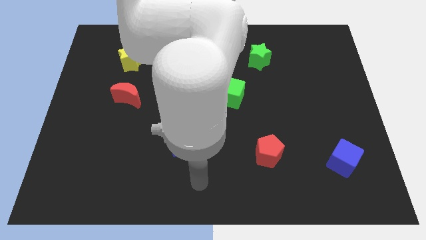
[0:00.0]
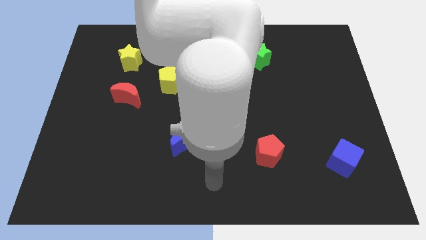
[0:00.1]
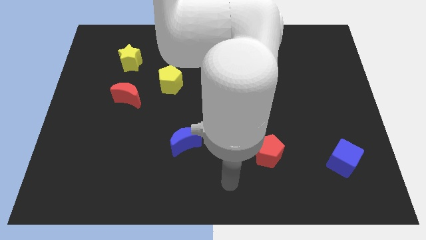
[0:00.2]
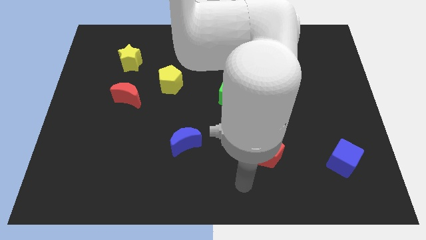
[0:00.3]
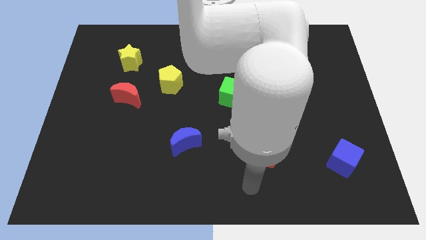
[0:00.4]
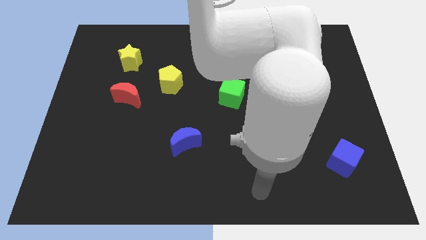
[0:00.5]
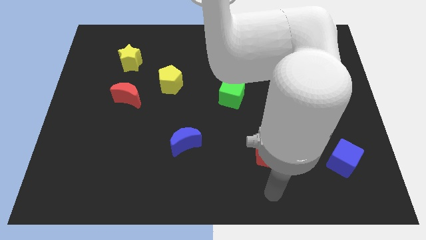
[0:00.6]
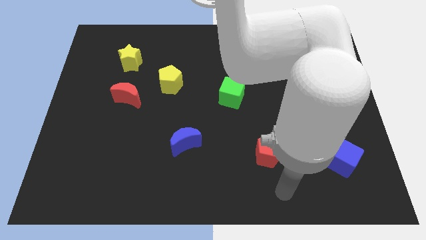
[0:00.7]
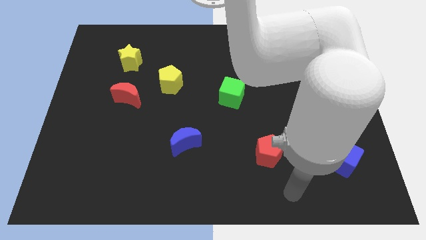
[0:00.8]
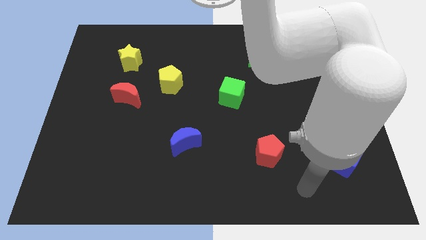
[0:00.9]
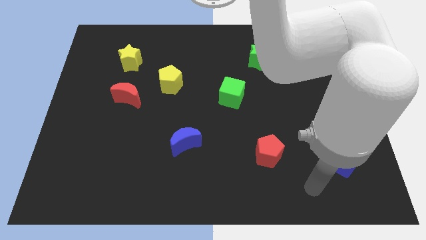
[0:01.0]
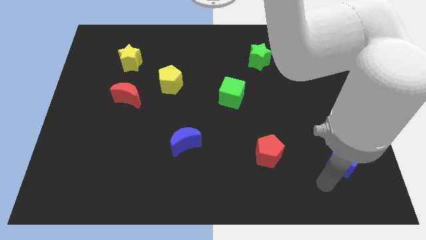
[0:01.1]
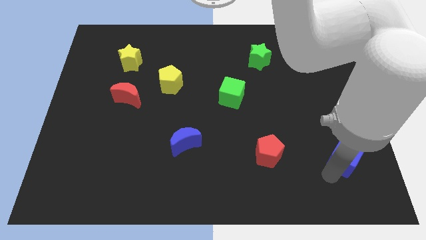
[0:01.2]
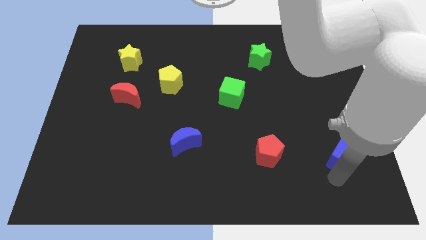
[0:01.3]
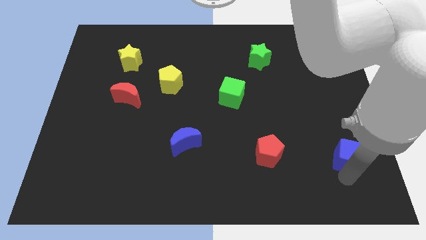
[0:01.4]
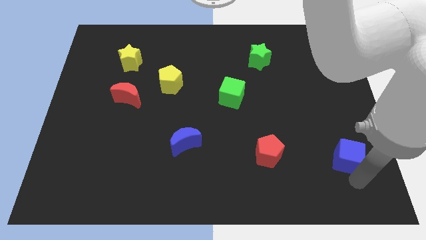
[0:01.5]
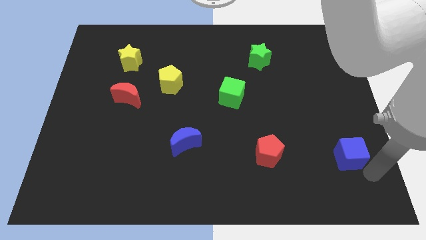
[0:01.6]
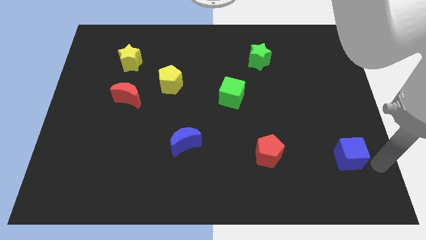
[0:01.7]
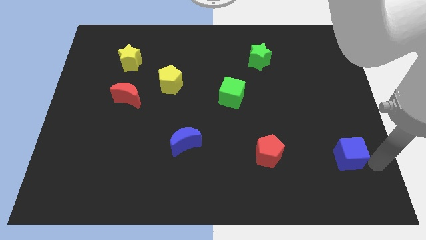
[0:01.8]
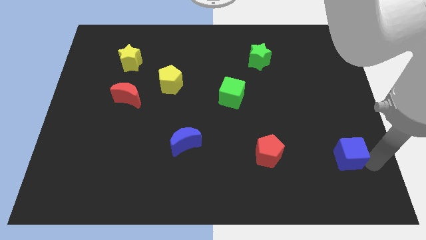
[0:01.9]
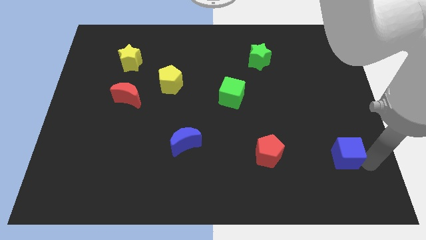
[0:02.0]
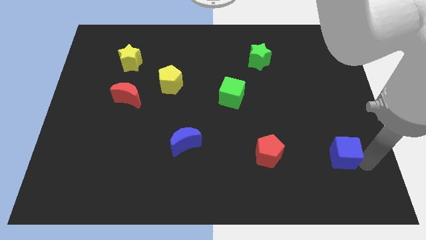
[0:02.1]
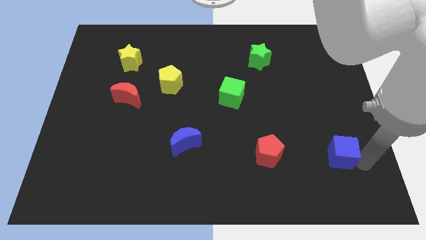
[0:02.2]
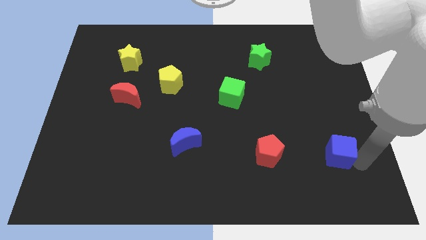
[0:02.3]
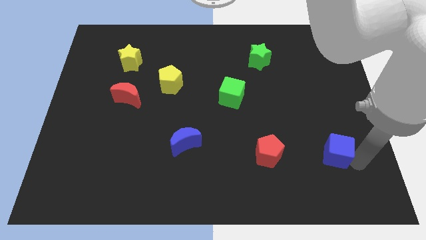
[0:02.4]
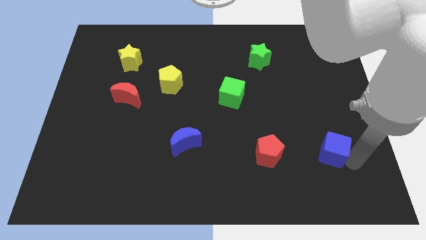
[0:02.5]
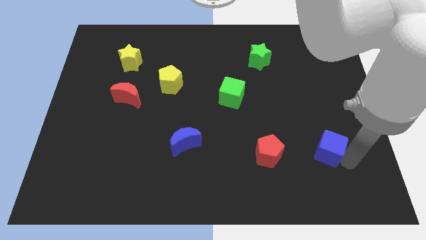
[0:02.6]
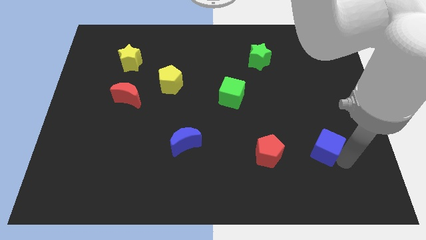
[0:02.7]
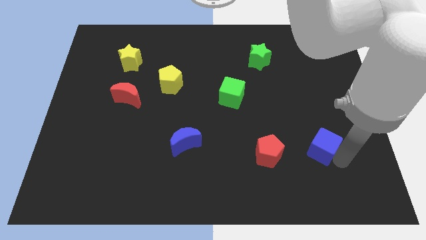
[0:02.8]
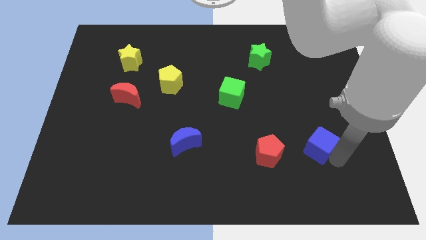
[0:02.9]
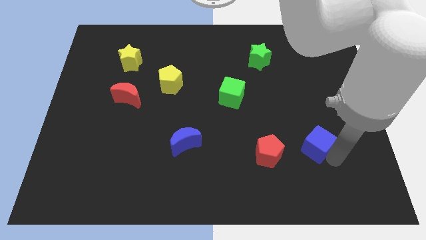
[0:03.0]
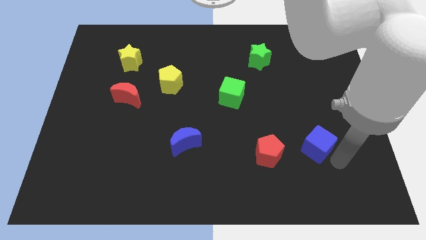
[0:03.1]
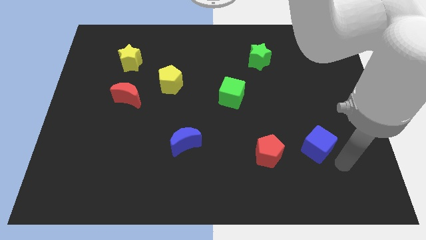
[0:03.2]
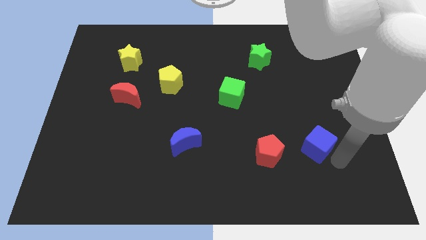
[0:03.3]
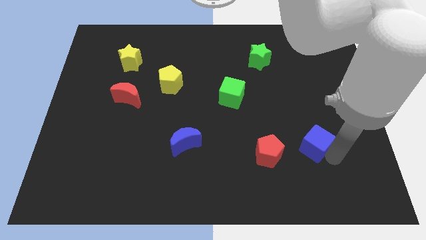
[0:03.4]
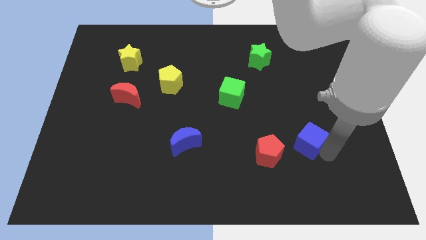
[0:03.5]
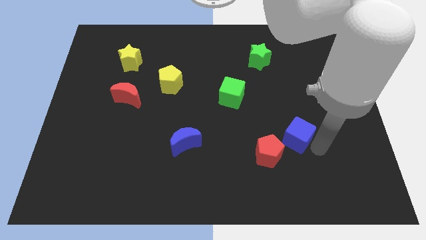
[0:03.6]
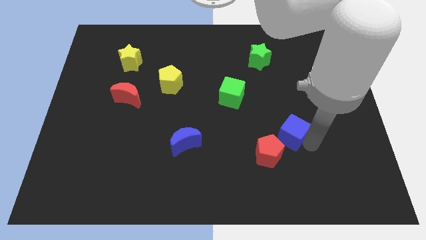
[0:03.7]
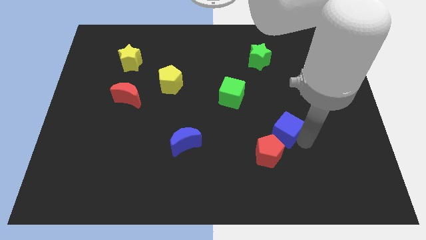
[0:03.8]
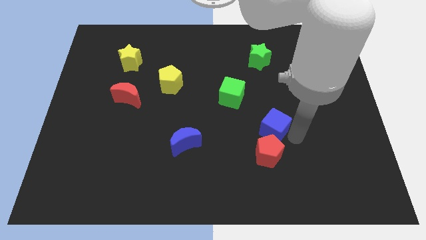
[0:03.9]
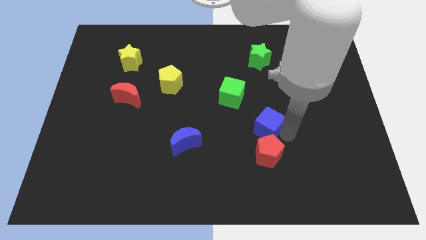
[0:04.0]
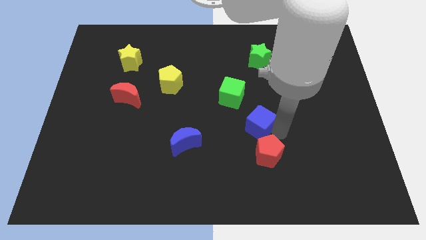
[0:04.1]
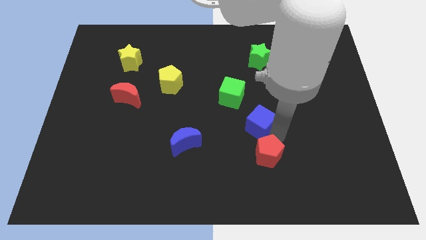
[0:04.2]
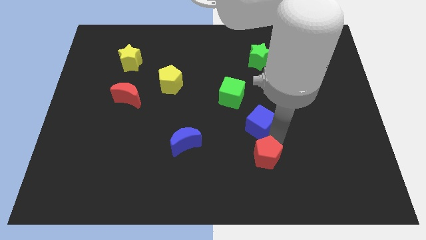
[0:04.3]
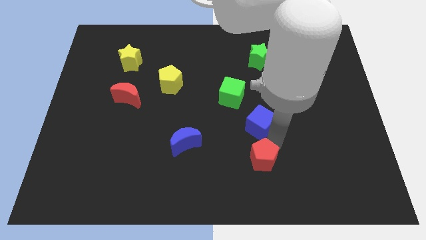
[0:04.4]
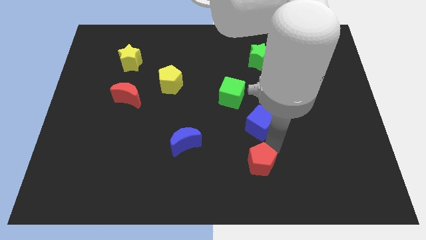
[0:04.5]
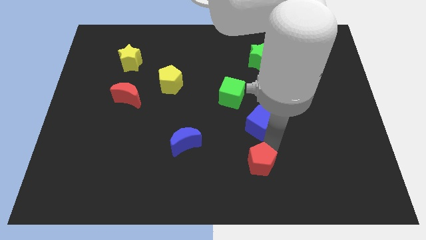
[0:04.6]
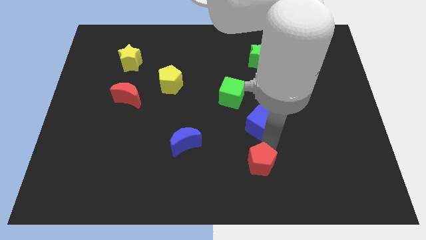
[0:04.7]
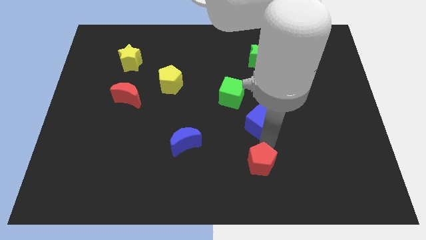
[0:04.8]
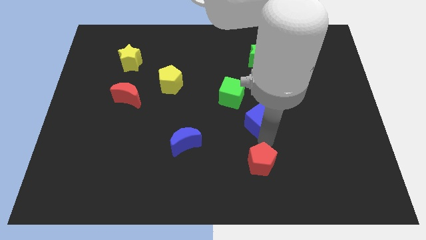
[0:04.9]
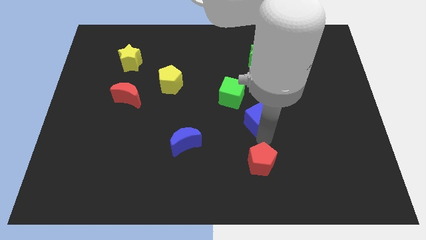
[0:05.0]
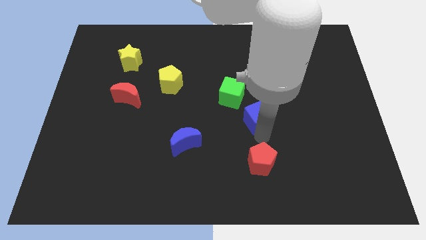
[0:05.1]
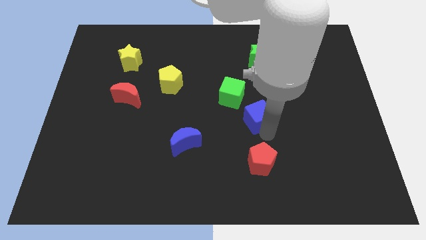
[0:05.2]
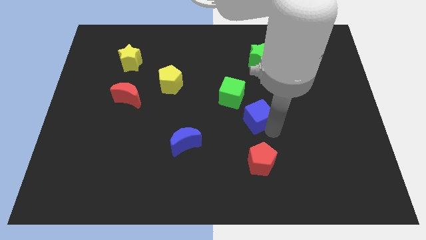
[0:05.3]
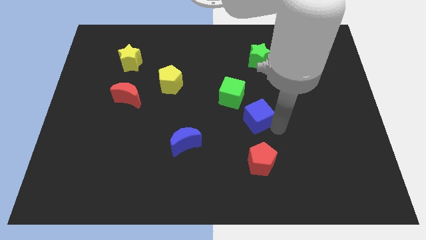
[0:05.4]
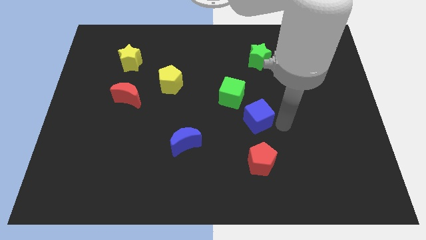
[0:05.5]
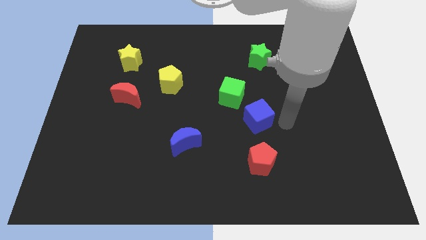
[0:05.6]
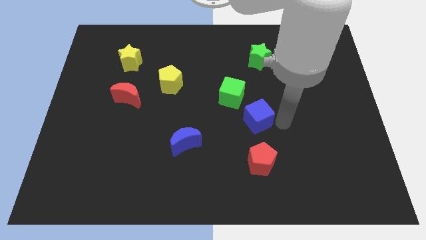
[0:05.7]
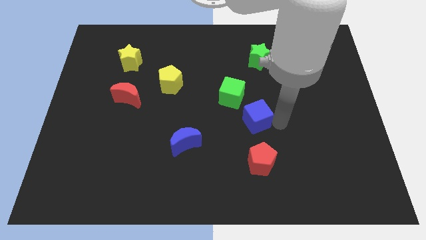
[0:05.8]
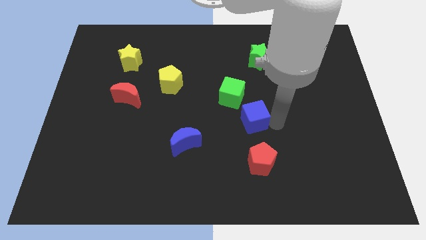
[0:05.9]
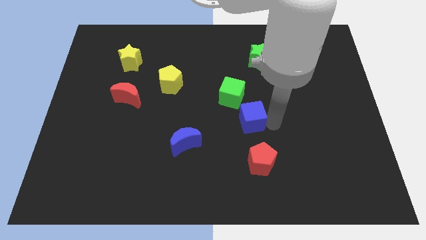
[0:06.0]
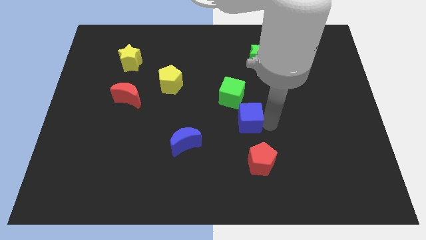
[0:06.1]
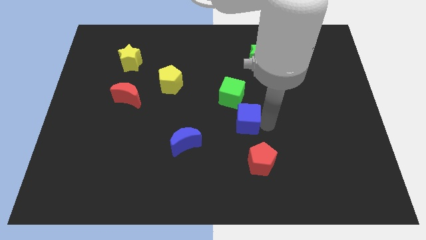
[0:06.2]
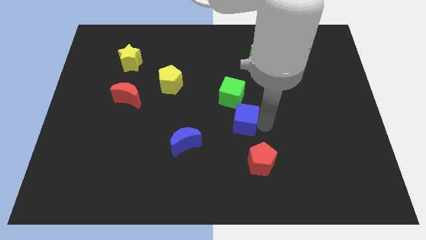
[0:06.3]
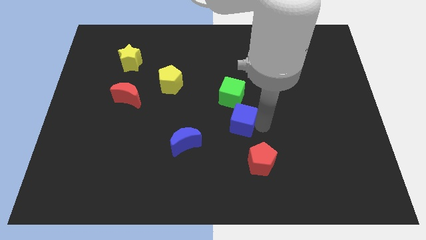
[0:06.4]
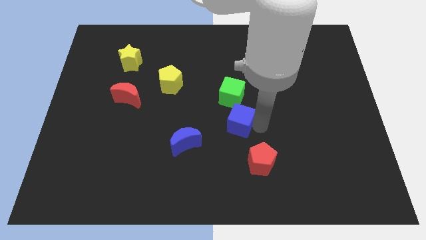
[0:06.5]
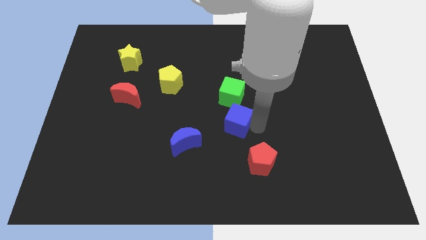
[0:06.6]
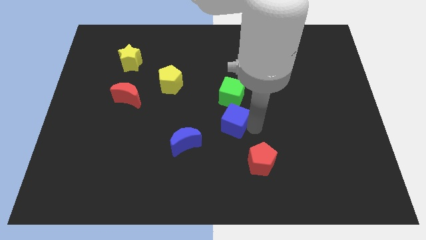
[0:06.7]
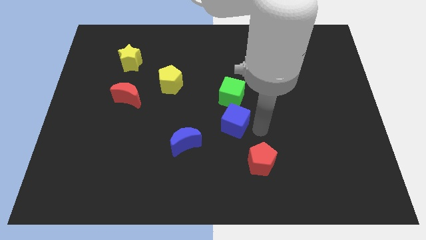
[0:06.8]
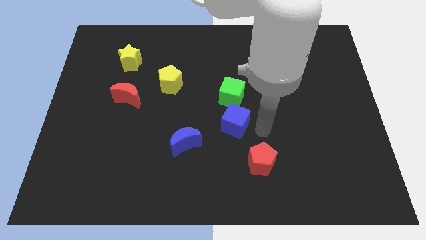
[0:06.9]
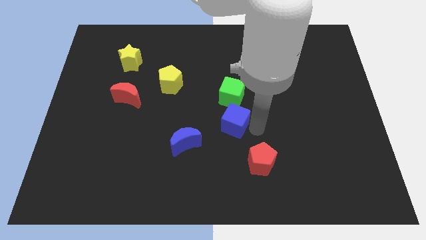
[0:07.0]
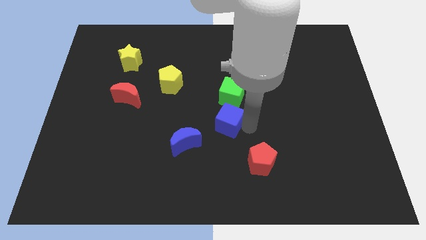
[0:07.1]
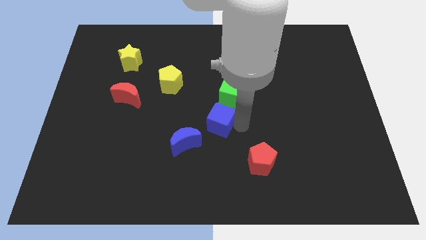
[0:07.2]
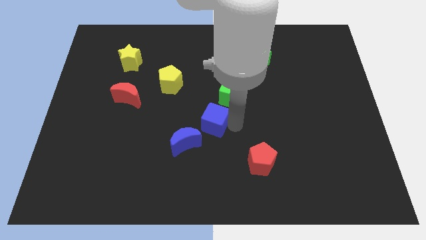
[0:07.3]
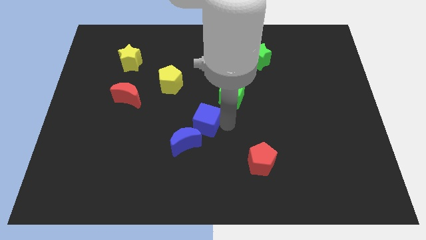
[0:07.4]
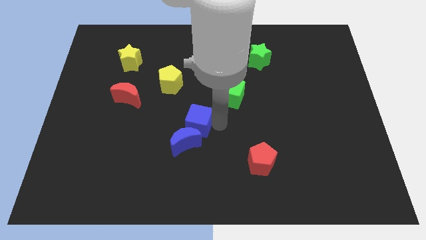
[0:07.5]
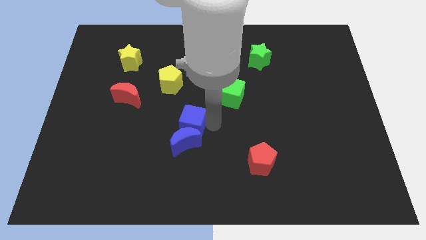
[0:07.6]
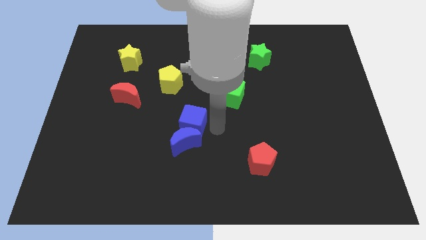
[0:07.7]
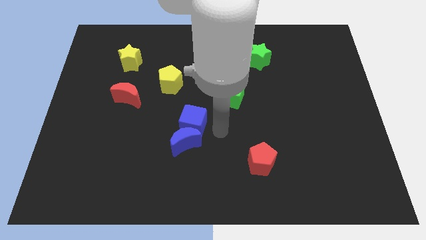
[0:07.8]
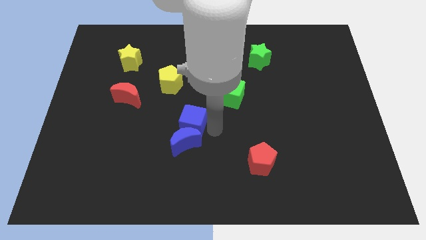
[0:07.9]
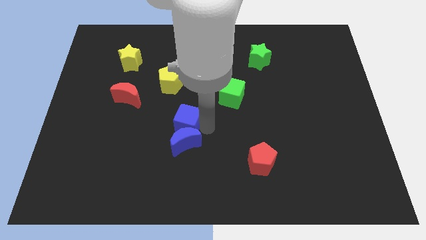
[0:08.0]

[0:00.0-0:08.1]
move the blue cube to the bottom side of the yellow pentagon

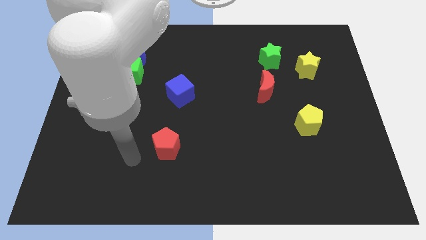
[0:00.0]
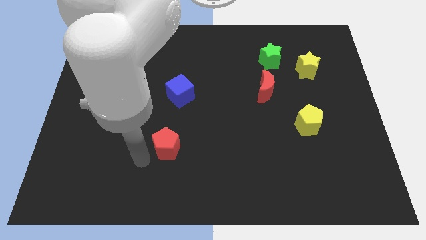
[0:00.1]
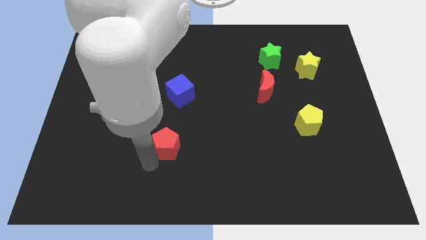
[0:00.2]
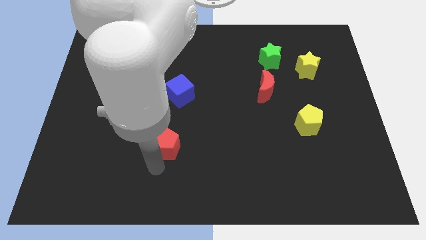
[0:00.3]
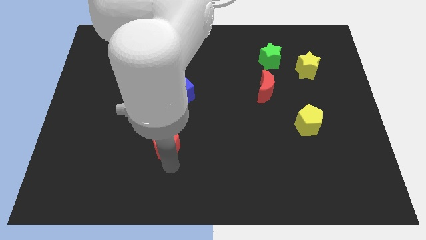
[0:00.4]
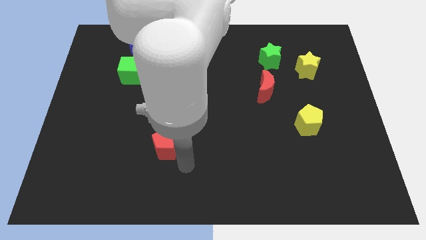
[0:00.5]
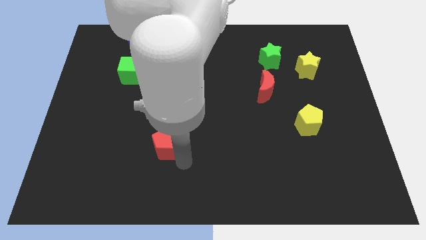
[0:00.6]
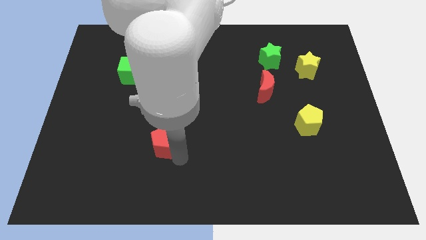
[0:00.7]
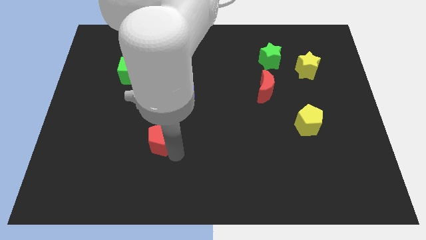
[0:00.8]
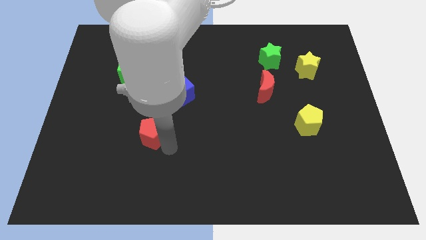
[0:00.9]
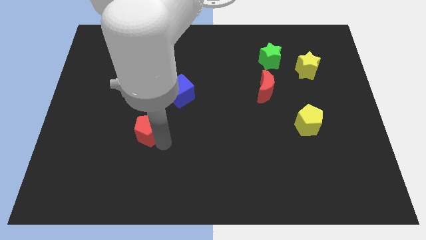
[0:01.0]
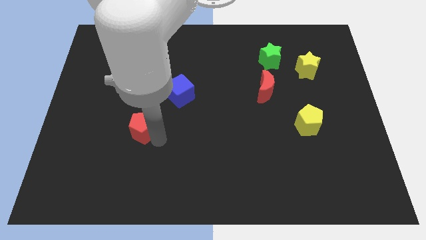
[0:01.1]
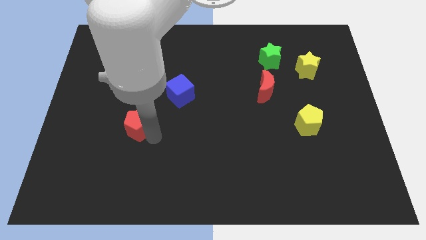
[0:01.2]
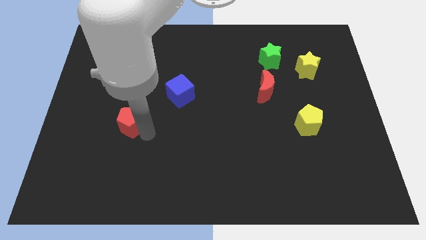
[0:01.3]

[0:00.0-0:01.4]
move the red pentagon below the green cube
